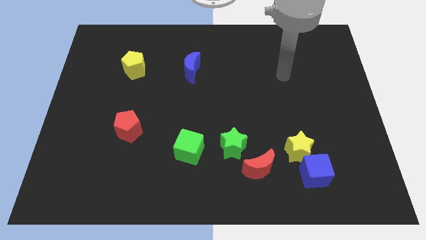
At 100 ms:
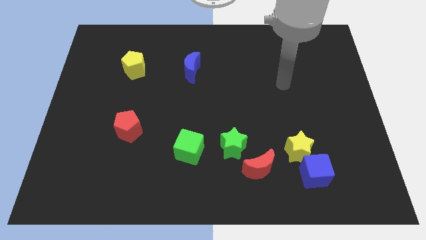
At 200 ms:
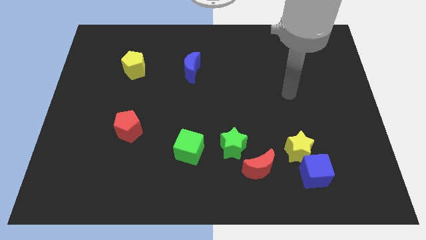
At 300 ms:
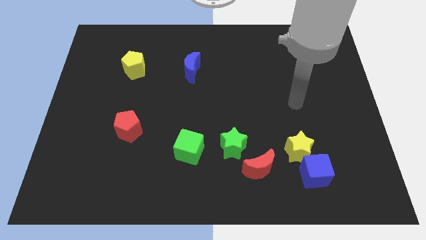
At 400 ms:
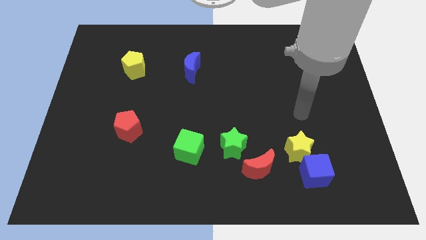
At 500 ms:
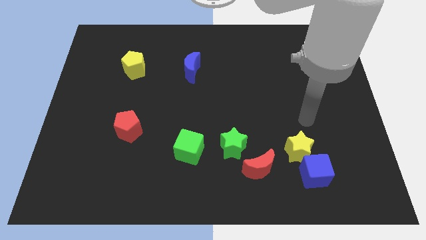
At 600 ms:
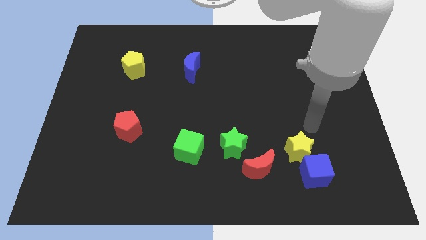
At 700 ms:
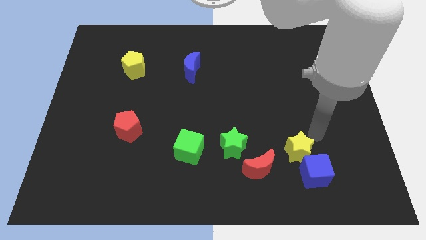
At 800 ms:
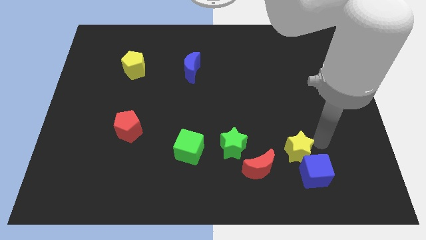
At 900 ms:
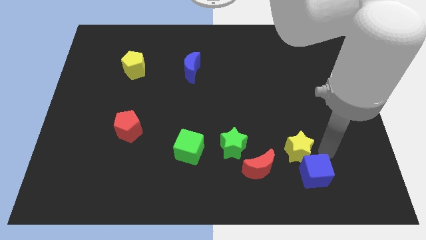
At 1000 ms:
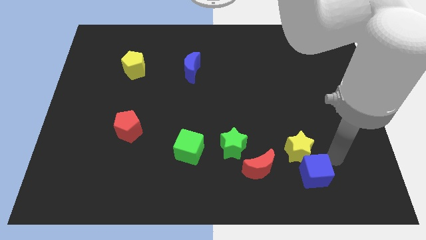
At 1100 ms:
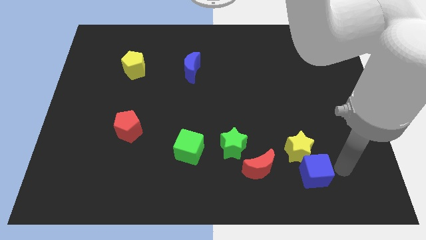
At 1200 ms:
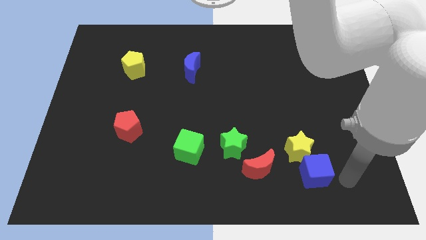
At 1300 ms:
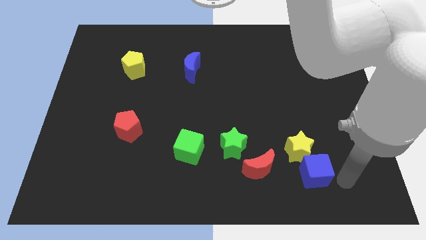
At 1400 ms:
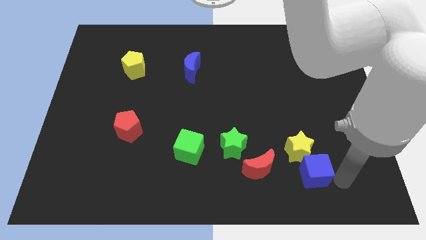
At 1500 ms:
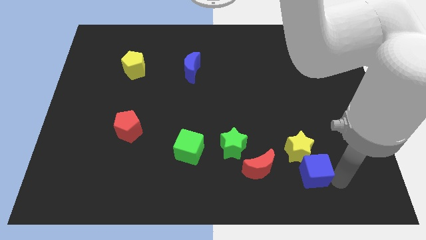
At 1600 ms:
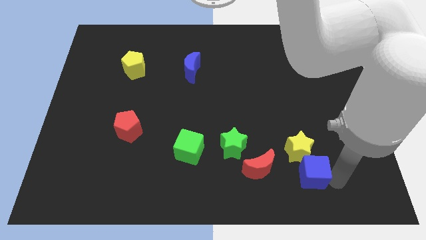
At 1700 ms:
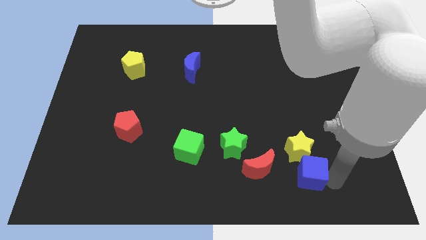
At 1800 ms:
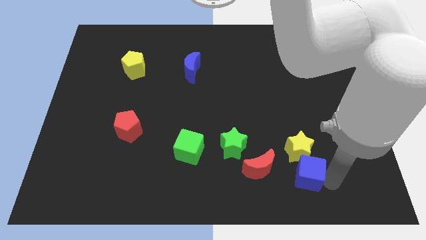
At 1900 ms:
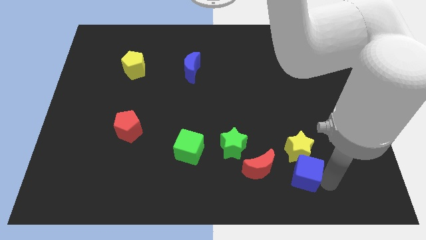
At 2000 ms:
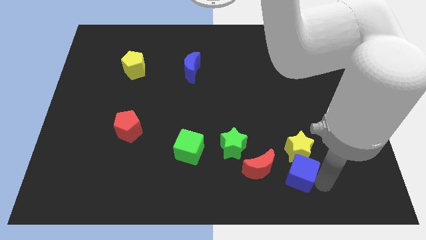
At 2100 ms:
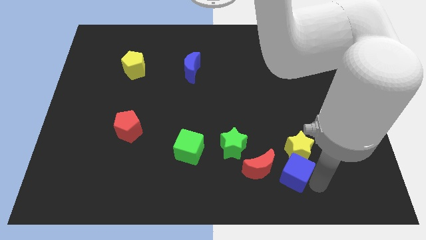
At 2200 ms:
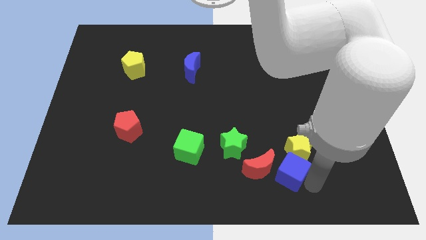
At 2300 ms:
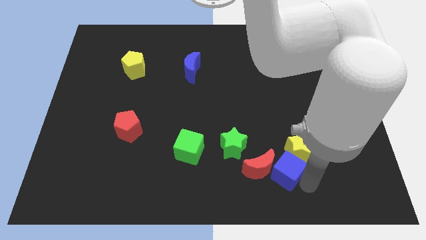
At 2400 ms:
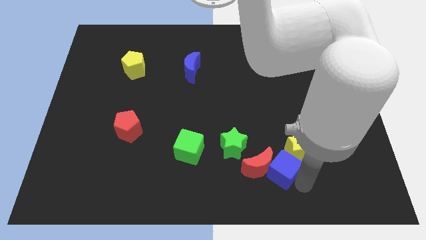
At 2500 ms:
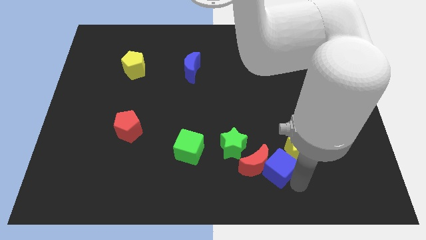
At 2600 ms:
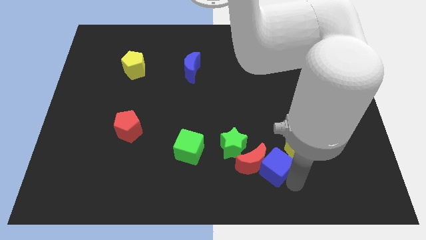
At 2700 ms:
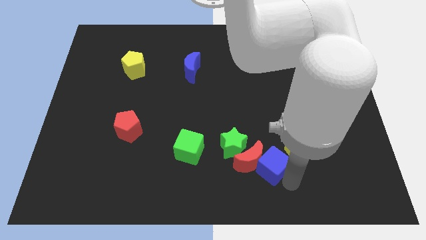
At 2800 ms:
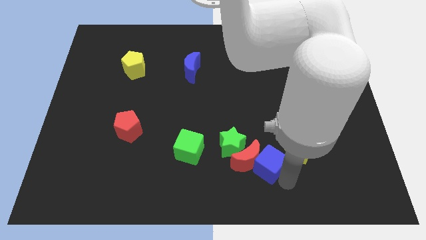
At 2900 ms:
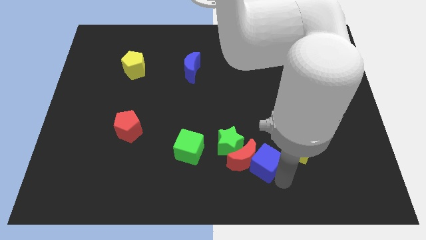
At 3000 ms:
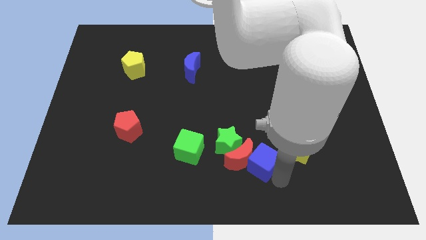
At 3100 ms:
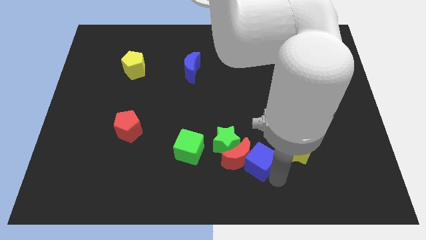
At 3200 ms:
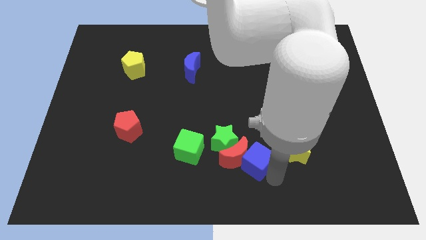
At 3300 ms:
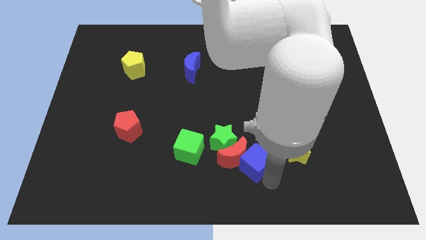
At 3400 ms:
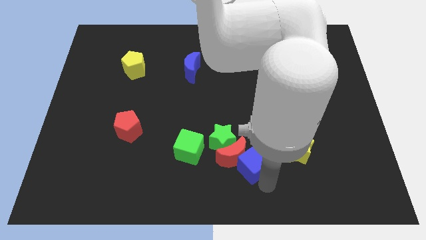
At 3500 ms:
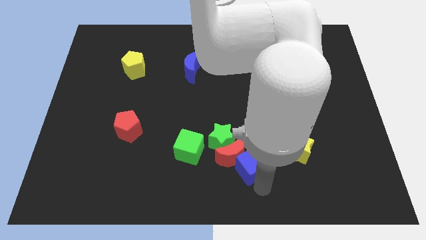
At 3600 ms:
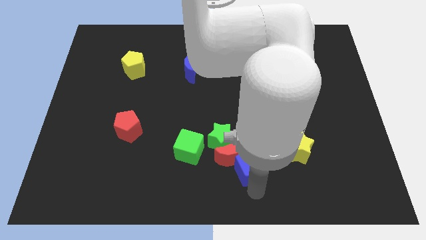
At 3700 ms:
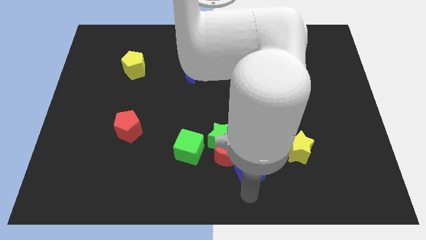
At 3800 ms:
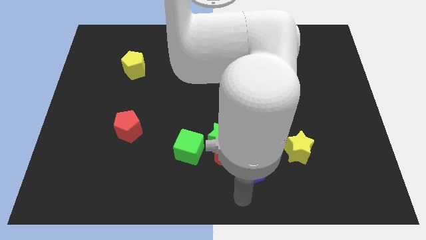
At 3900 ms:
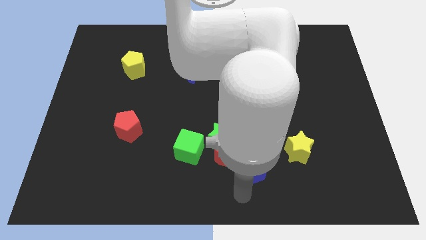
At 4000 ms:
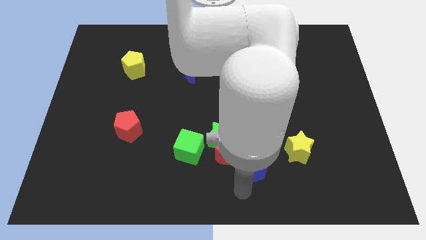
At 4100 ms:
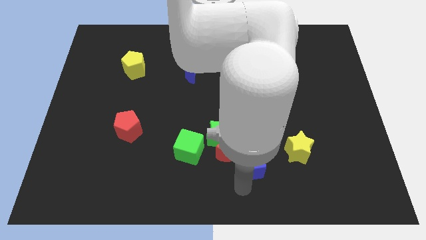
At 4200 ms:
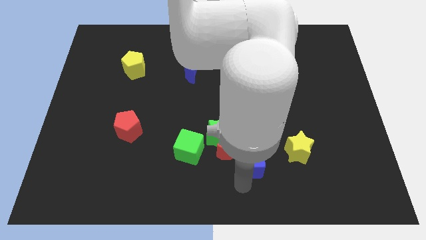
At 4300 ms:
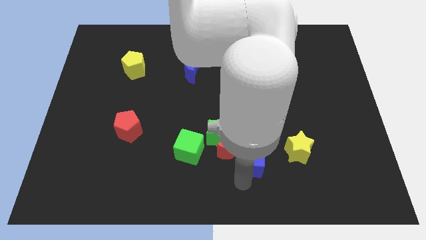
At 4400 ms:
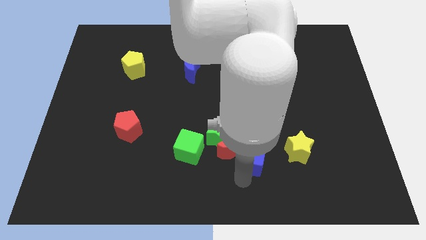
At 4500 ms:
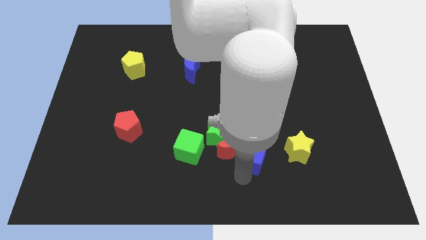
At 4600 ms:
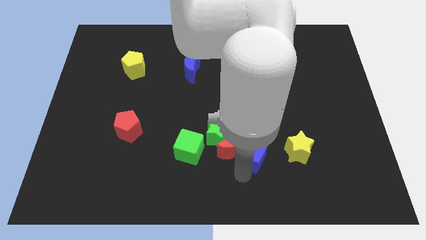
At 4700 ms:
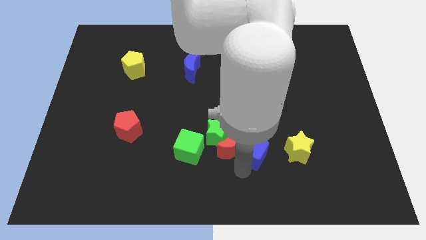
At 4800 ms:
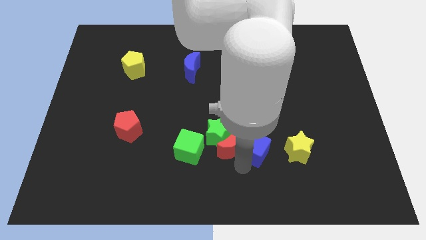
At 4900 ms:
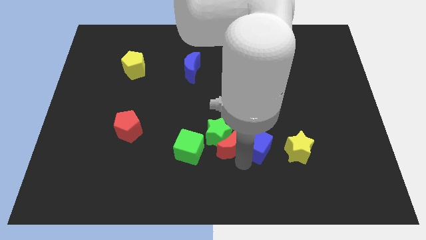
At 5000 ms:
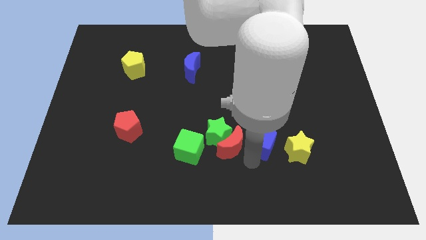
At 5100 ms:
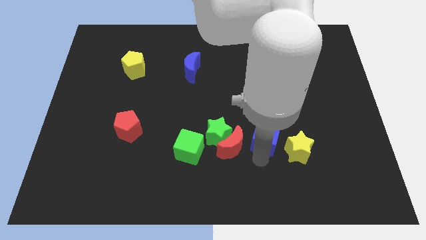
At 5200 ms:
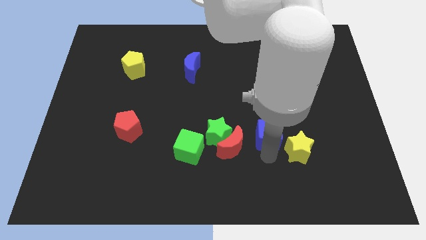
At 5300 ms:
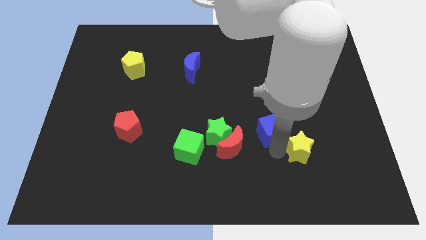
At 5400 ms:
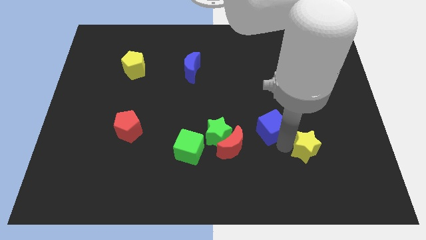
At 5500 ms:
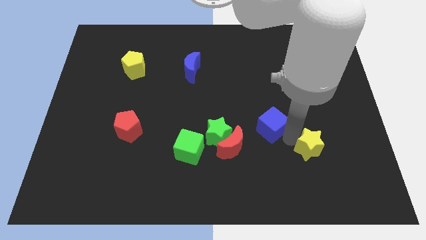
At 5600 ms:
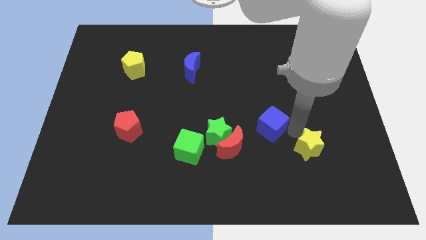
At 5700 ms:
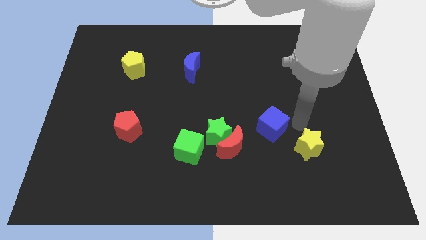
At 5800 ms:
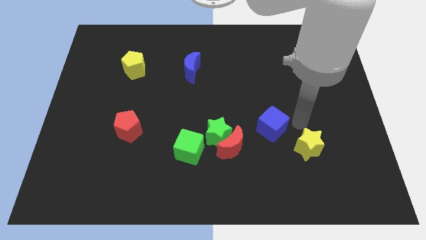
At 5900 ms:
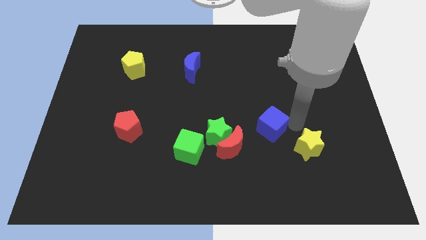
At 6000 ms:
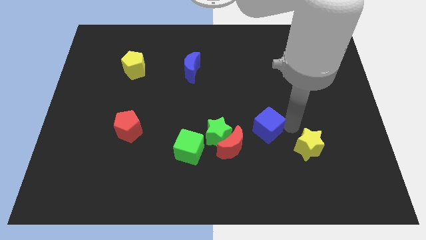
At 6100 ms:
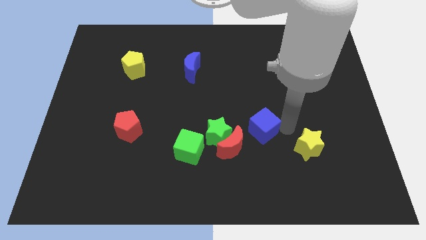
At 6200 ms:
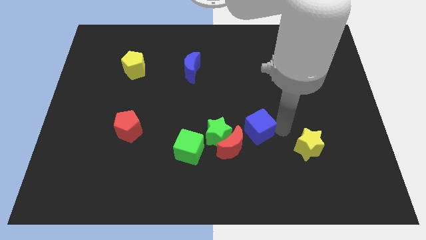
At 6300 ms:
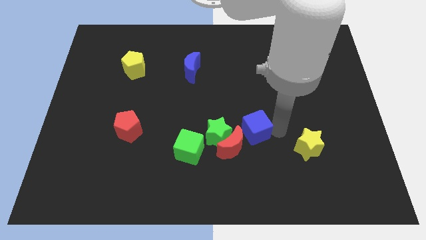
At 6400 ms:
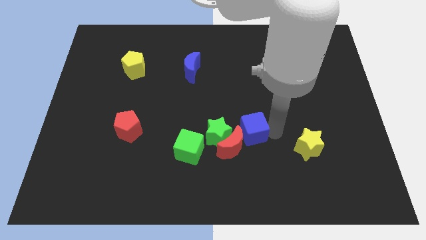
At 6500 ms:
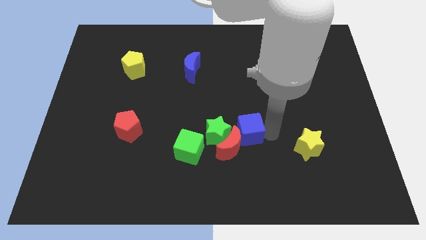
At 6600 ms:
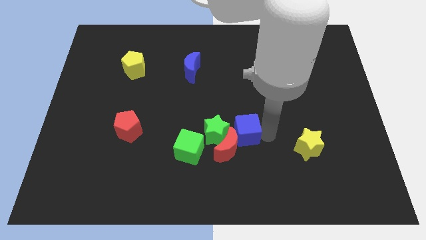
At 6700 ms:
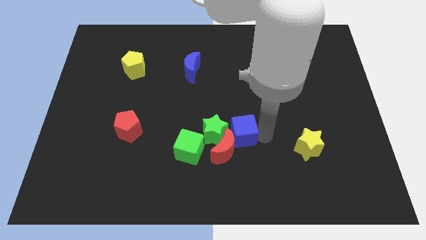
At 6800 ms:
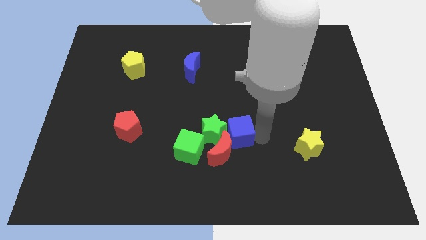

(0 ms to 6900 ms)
slide the blue cube next to the green star
